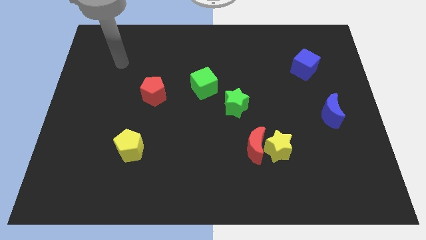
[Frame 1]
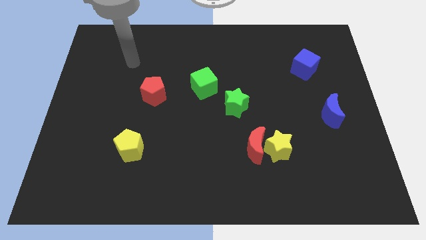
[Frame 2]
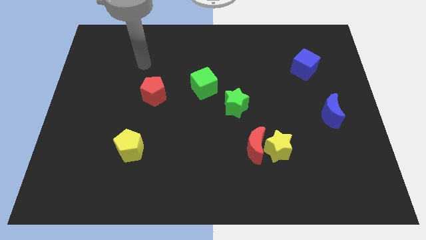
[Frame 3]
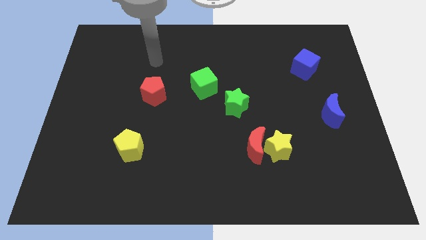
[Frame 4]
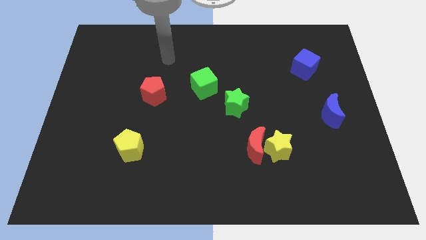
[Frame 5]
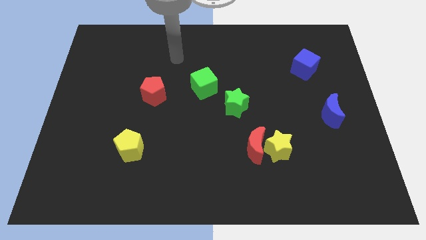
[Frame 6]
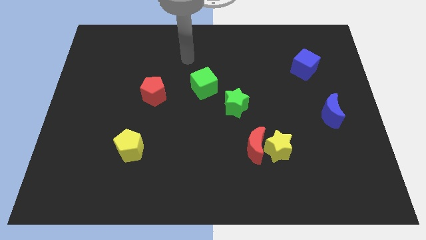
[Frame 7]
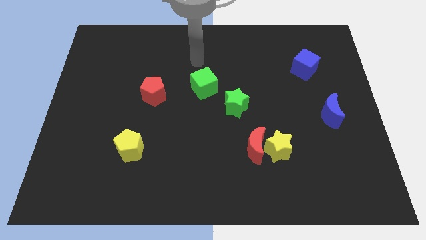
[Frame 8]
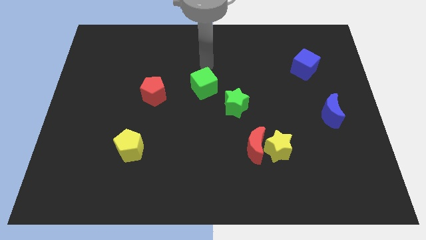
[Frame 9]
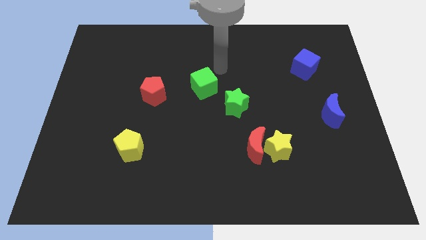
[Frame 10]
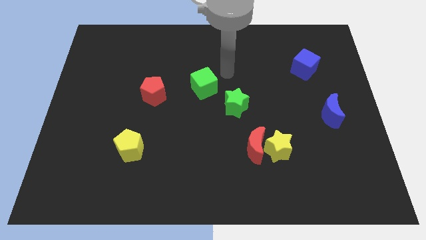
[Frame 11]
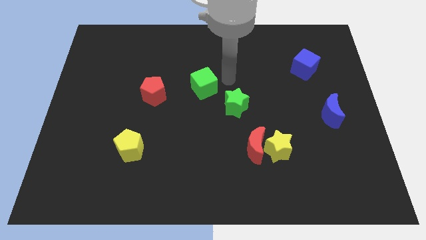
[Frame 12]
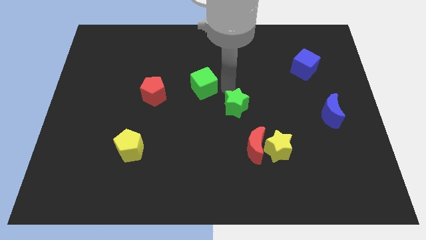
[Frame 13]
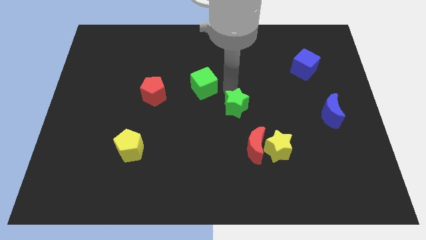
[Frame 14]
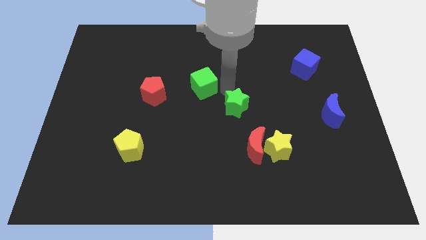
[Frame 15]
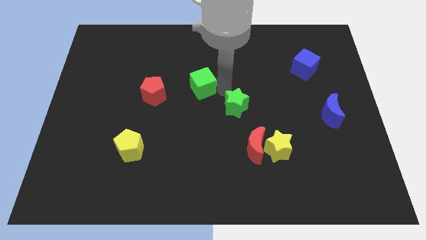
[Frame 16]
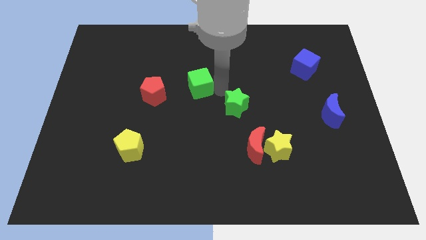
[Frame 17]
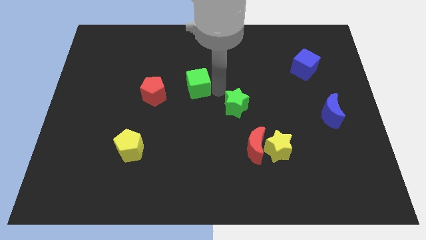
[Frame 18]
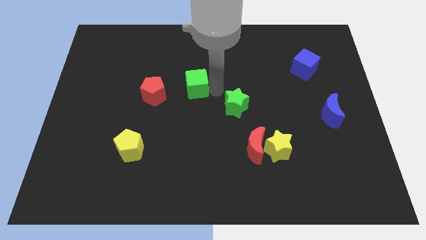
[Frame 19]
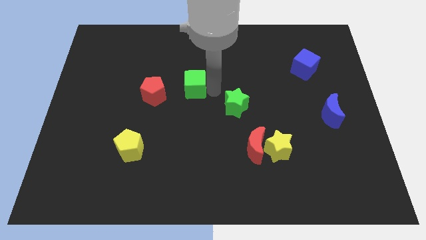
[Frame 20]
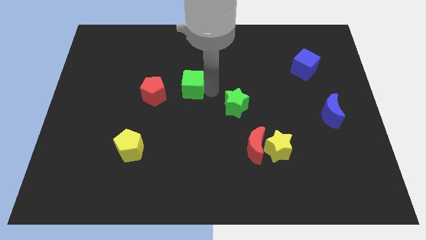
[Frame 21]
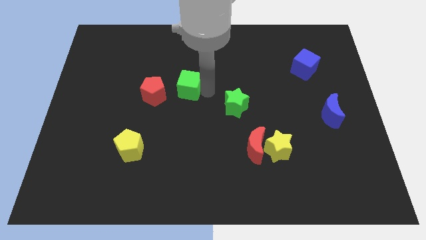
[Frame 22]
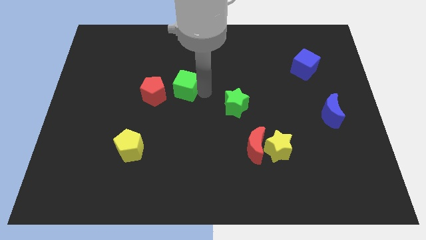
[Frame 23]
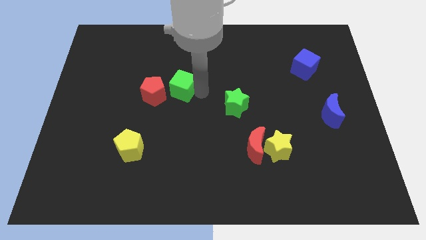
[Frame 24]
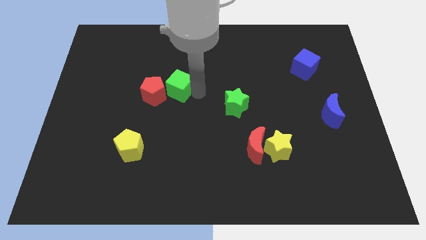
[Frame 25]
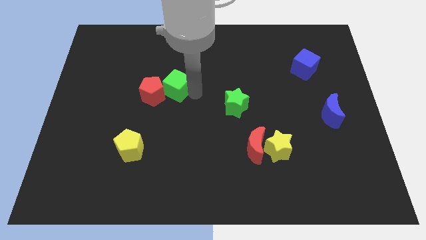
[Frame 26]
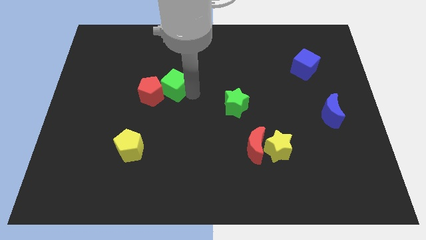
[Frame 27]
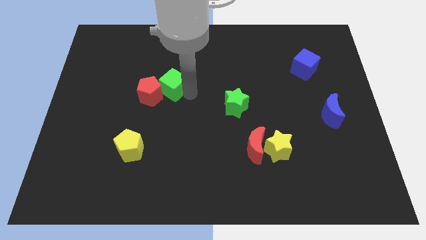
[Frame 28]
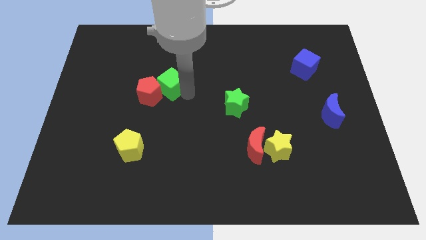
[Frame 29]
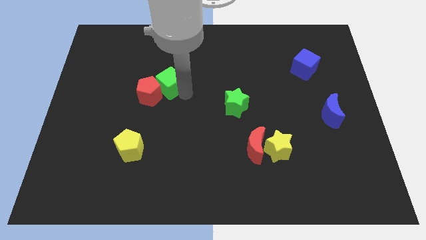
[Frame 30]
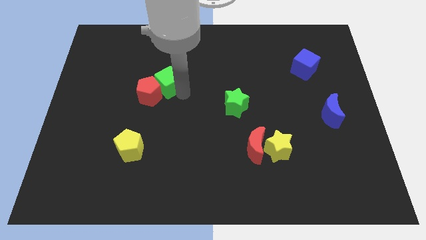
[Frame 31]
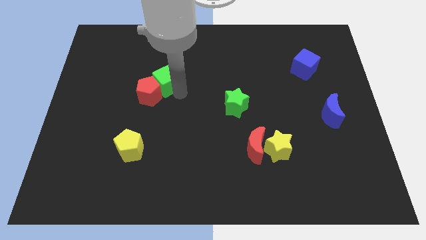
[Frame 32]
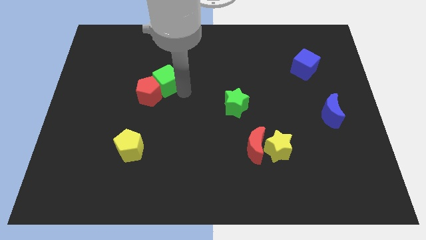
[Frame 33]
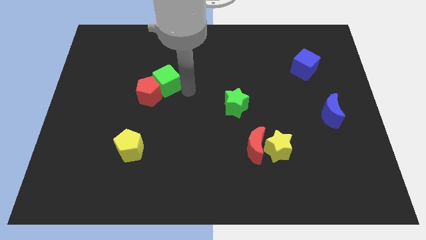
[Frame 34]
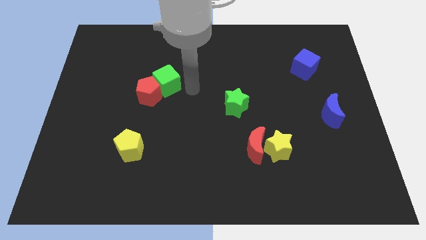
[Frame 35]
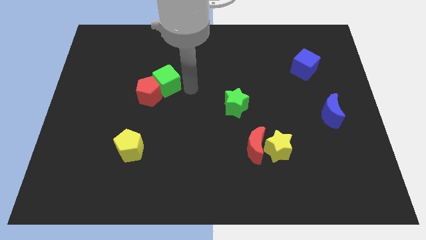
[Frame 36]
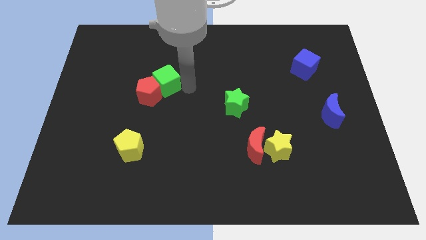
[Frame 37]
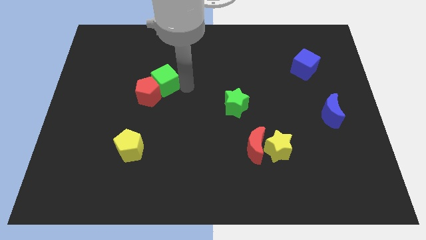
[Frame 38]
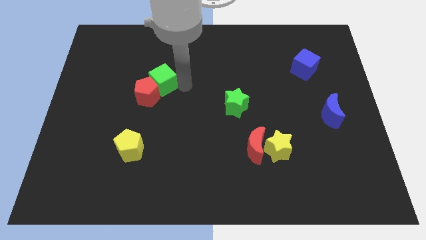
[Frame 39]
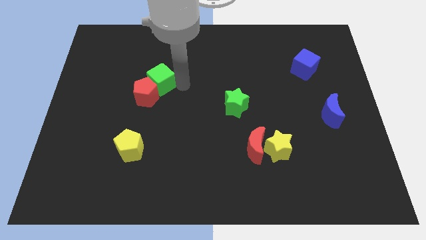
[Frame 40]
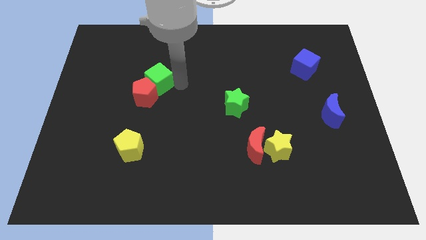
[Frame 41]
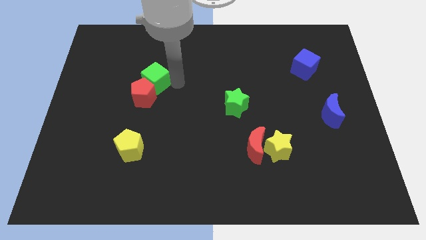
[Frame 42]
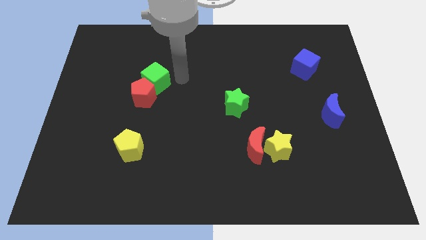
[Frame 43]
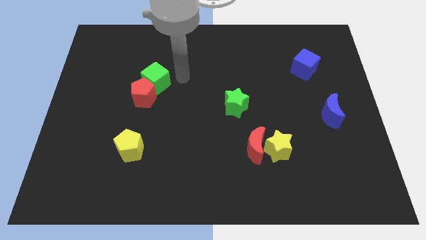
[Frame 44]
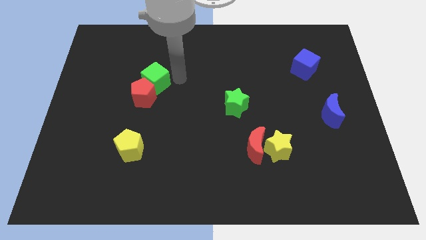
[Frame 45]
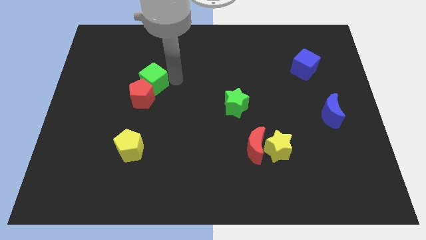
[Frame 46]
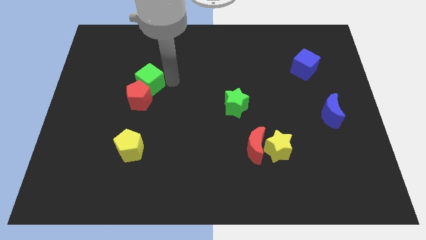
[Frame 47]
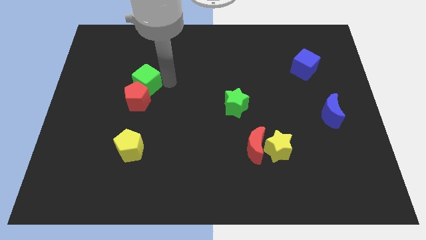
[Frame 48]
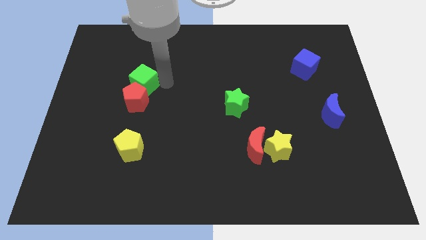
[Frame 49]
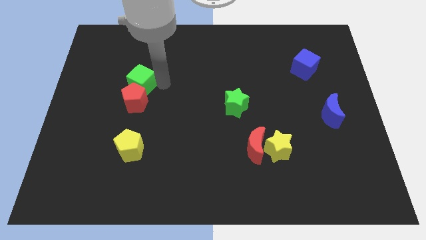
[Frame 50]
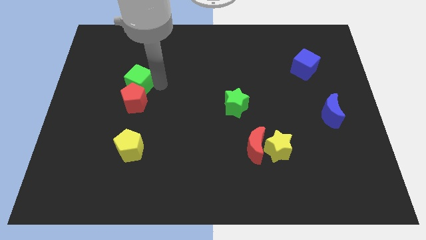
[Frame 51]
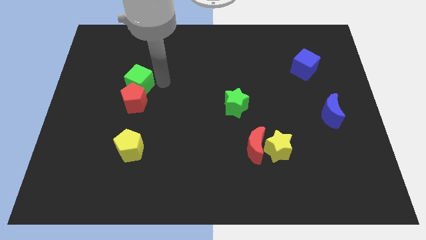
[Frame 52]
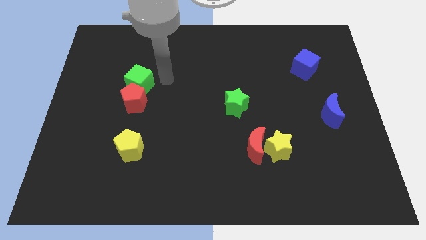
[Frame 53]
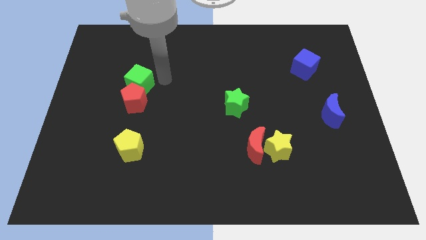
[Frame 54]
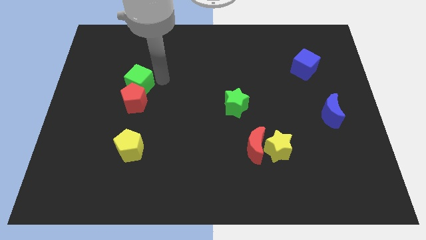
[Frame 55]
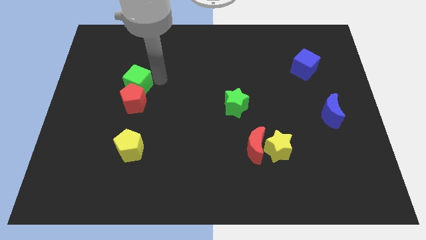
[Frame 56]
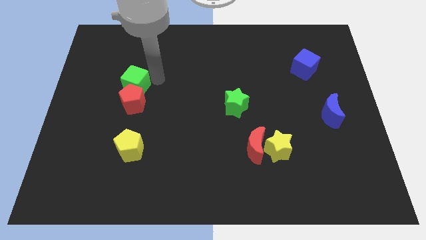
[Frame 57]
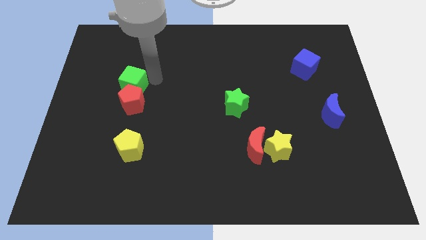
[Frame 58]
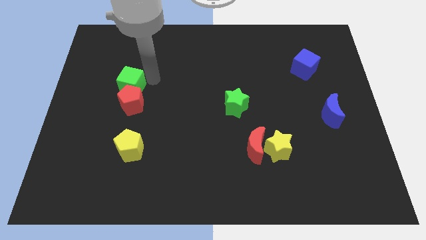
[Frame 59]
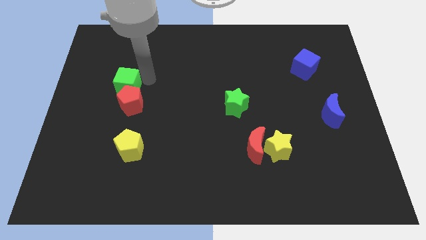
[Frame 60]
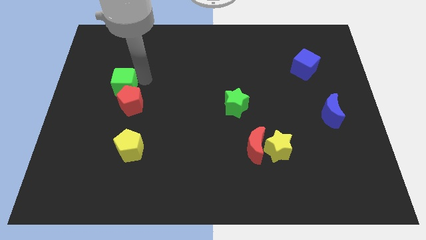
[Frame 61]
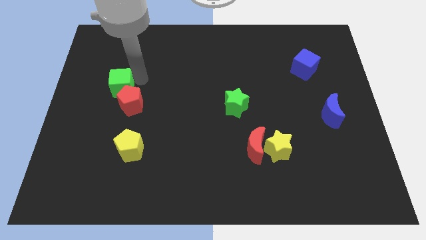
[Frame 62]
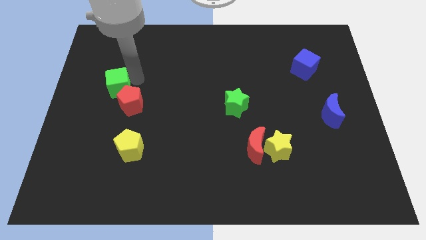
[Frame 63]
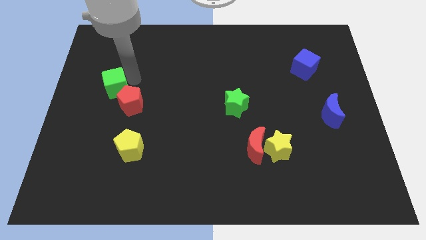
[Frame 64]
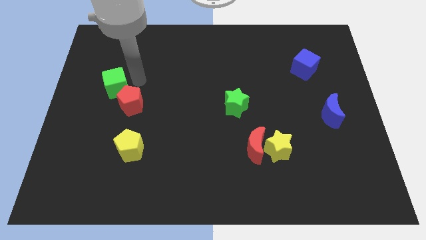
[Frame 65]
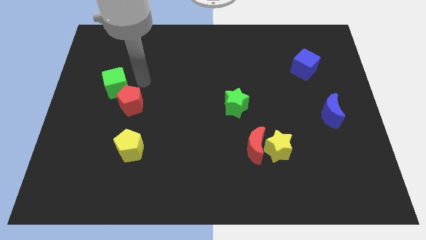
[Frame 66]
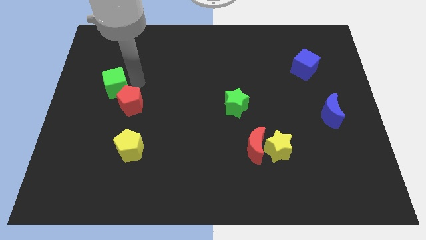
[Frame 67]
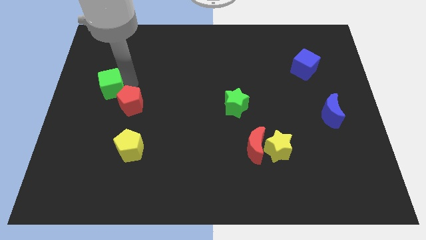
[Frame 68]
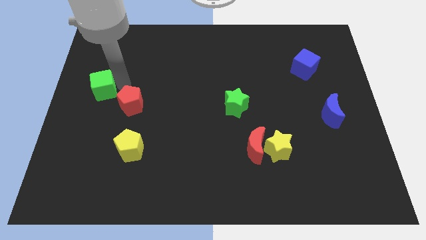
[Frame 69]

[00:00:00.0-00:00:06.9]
move the green cube to the left side
